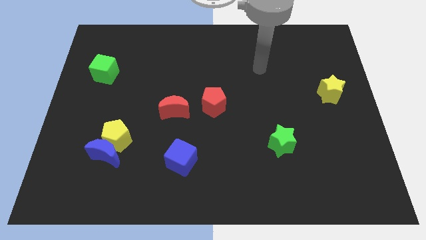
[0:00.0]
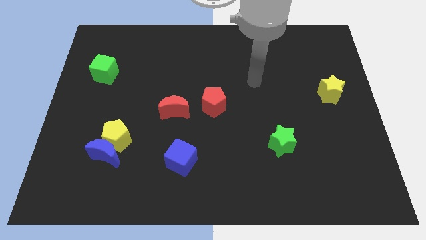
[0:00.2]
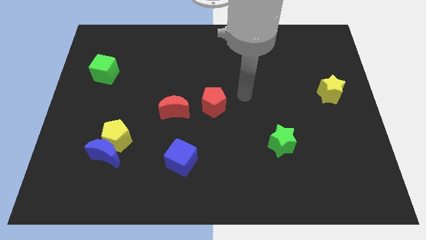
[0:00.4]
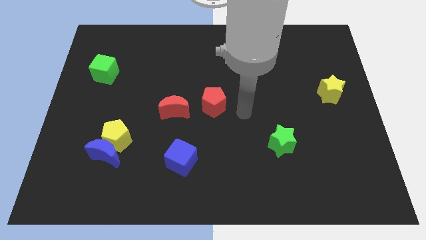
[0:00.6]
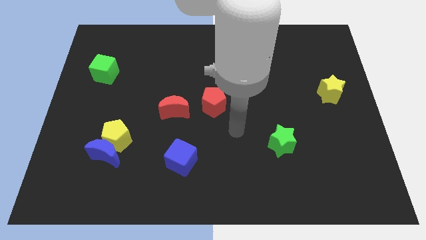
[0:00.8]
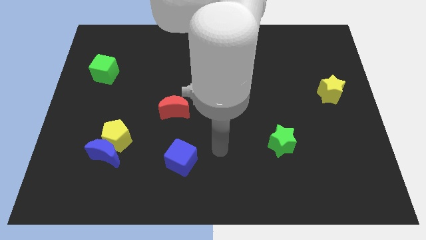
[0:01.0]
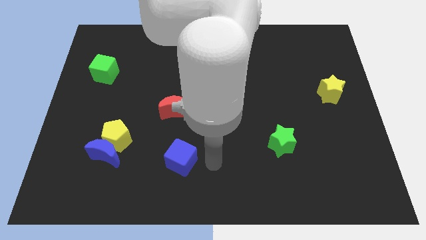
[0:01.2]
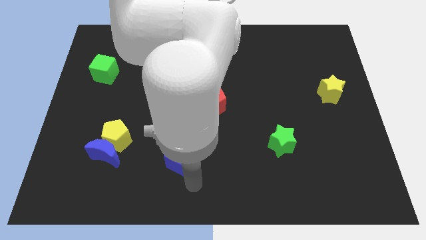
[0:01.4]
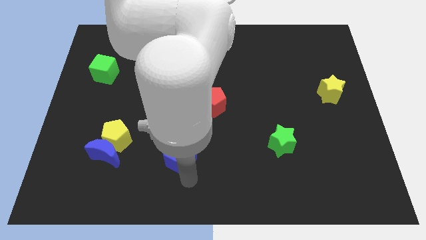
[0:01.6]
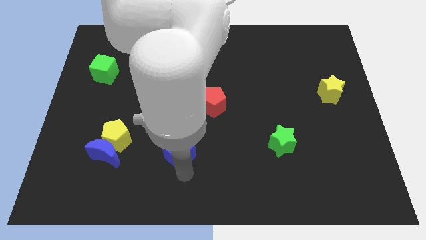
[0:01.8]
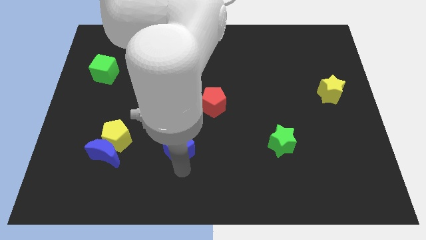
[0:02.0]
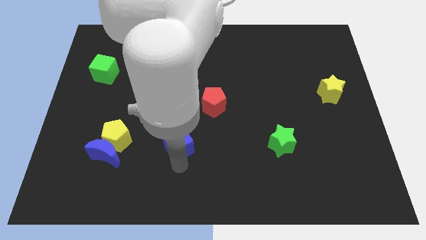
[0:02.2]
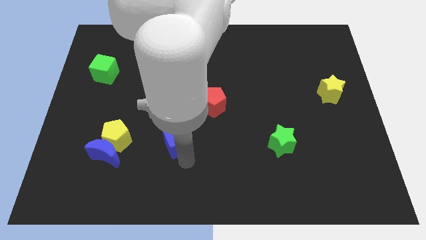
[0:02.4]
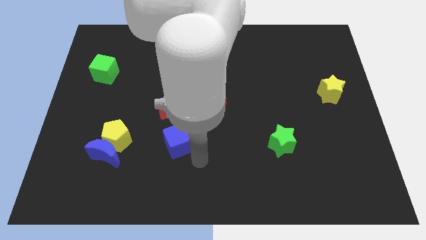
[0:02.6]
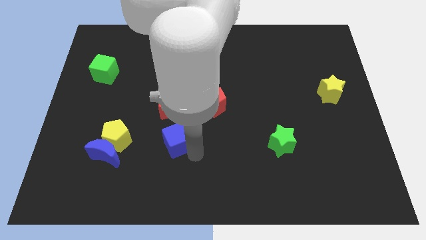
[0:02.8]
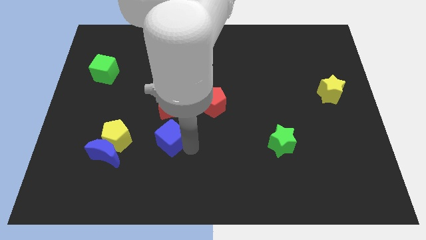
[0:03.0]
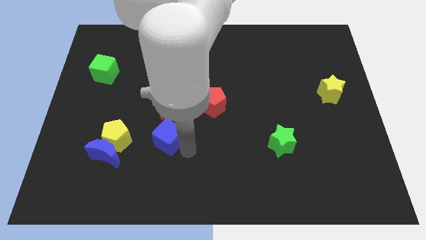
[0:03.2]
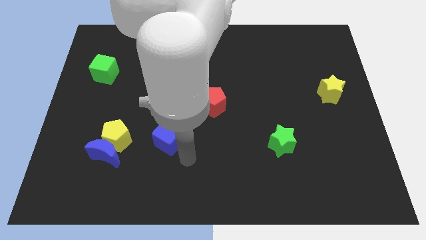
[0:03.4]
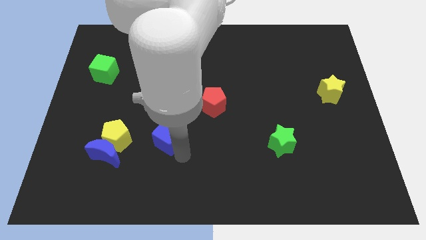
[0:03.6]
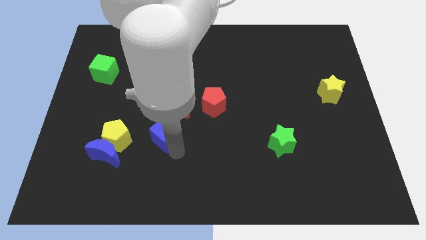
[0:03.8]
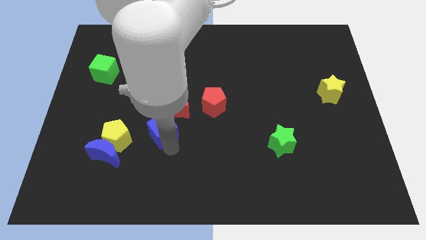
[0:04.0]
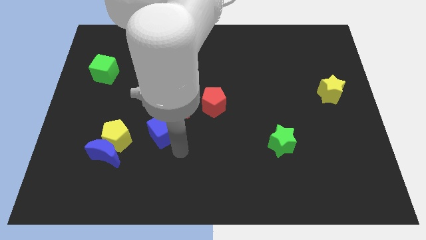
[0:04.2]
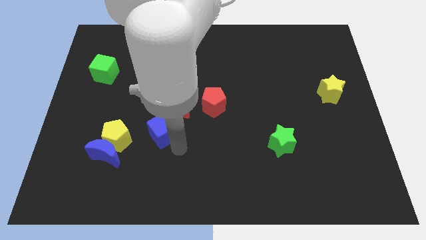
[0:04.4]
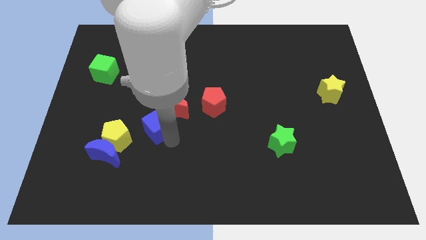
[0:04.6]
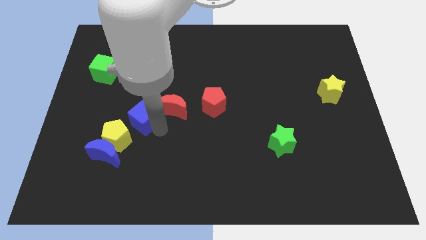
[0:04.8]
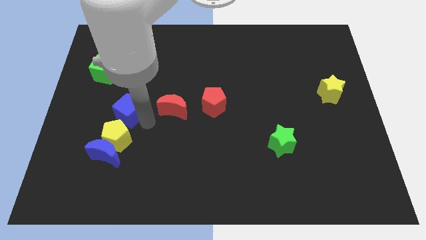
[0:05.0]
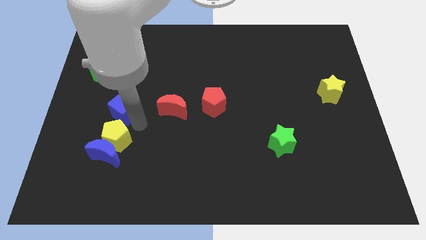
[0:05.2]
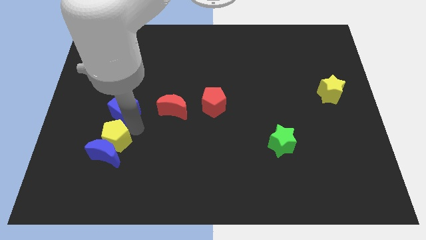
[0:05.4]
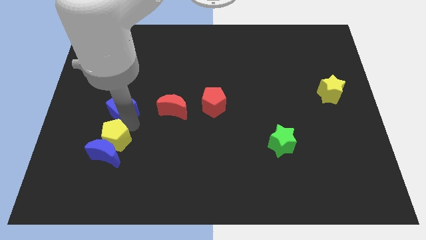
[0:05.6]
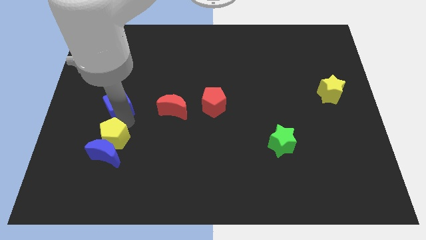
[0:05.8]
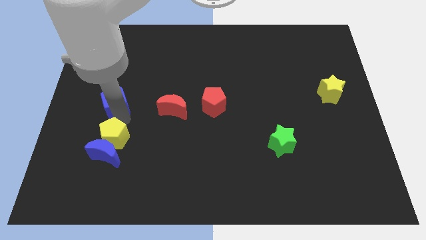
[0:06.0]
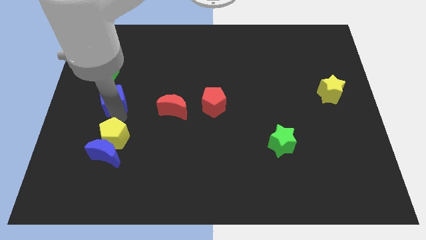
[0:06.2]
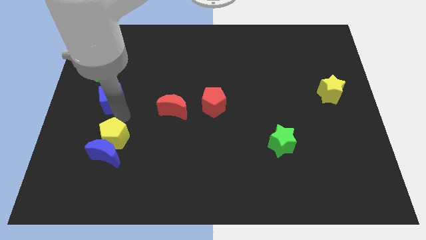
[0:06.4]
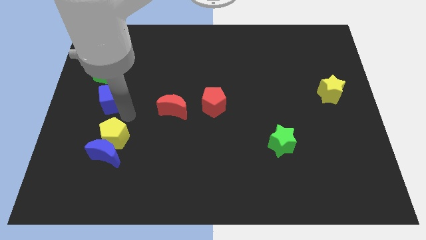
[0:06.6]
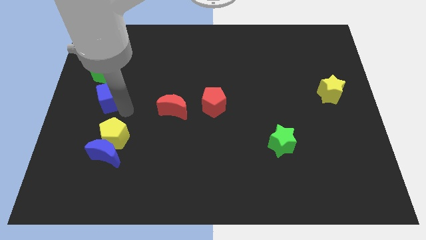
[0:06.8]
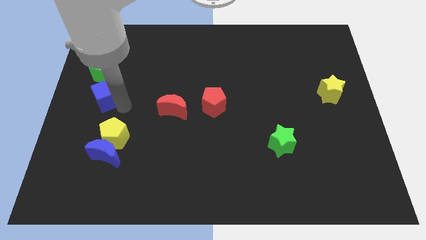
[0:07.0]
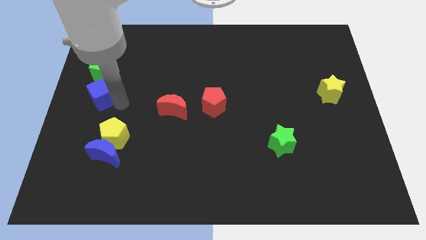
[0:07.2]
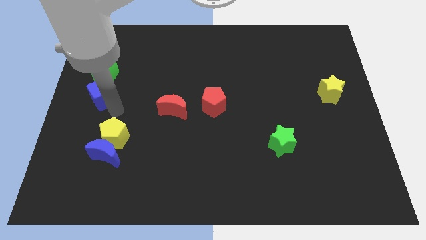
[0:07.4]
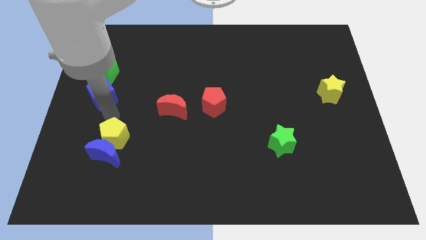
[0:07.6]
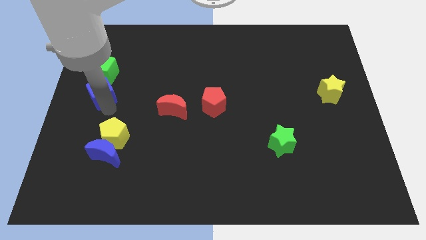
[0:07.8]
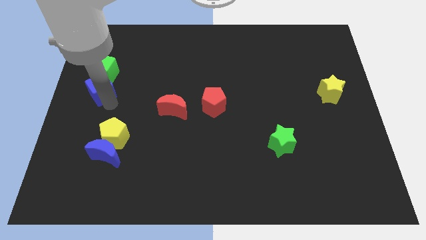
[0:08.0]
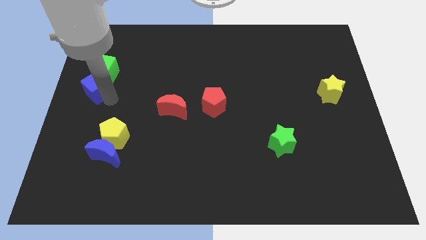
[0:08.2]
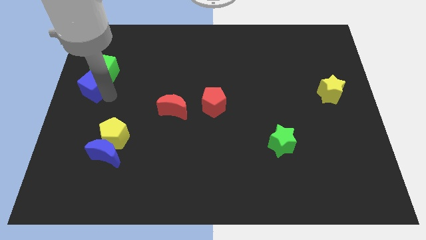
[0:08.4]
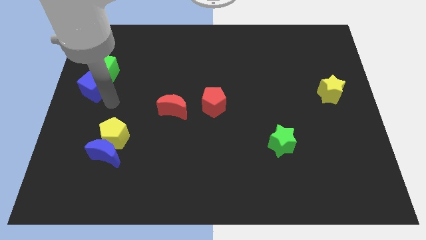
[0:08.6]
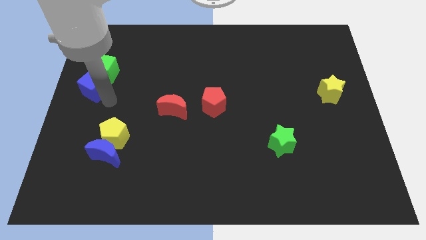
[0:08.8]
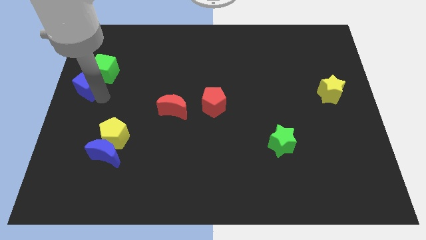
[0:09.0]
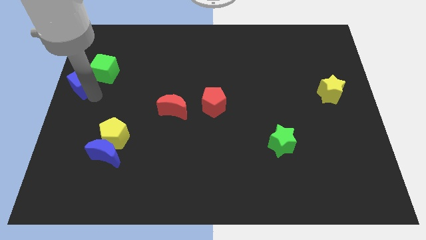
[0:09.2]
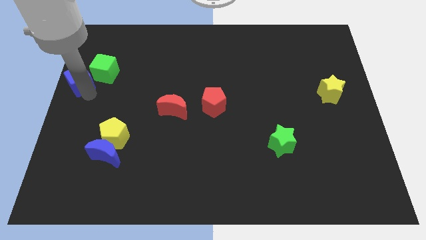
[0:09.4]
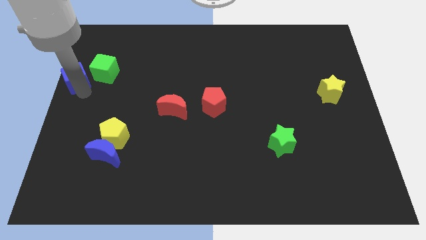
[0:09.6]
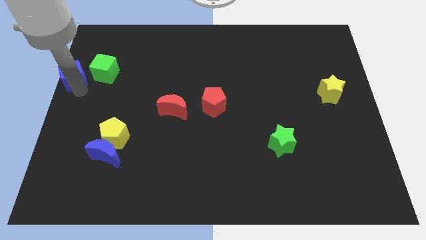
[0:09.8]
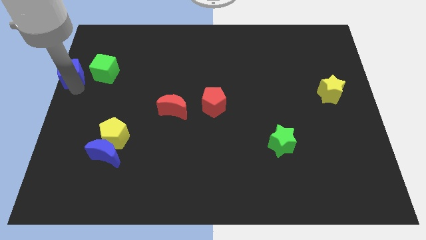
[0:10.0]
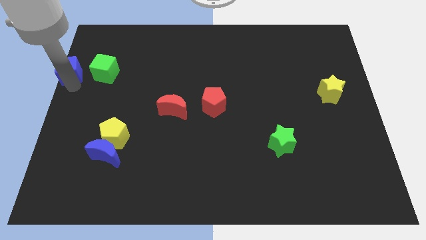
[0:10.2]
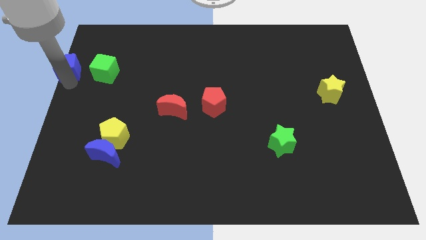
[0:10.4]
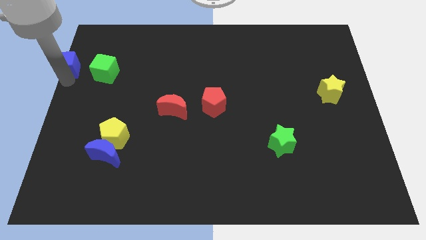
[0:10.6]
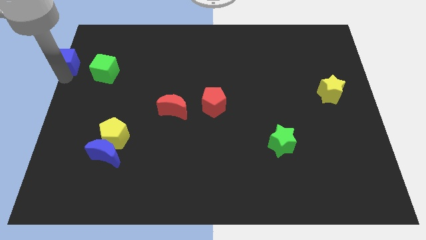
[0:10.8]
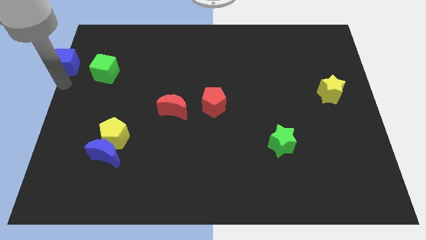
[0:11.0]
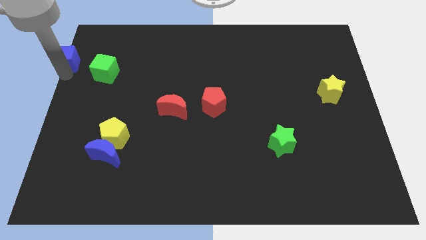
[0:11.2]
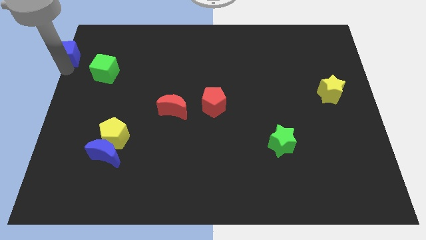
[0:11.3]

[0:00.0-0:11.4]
put the blue cube to the top left of the board
